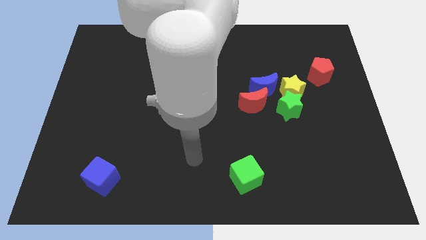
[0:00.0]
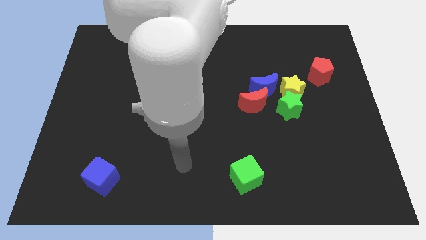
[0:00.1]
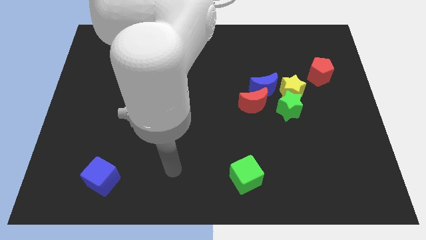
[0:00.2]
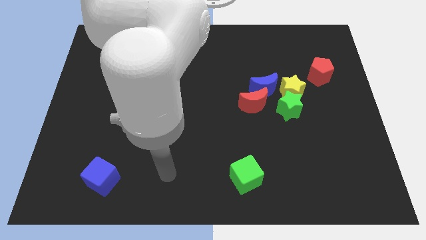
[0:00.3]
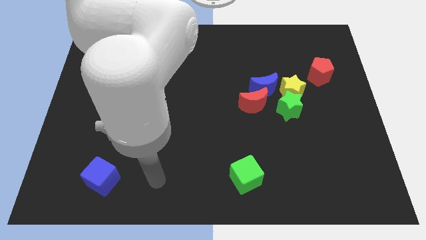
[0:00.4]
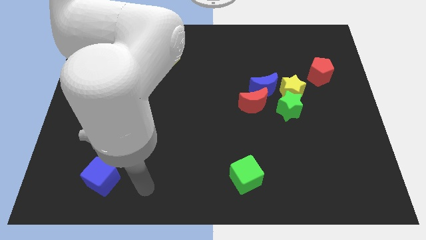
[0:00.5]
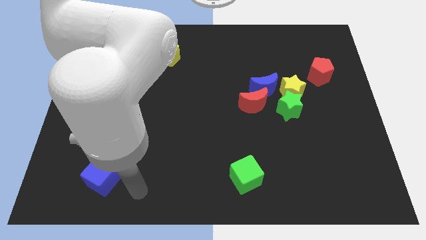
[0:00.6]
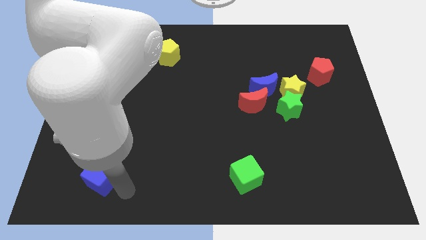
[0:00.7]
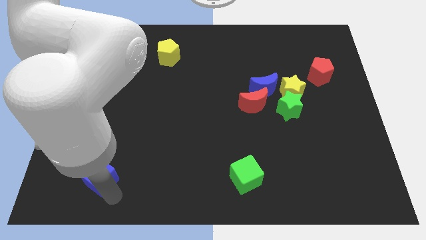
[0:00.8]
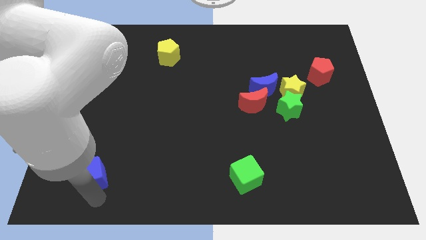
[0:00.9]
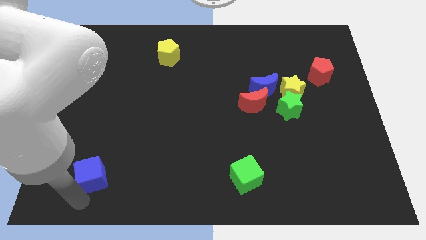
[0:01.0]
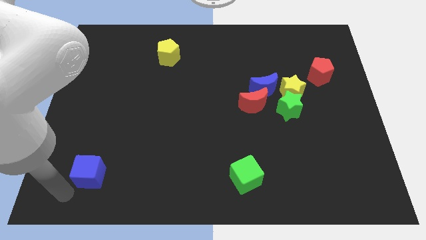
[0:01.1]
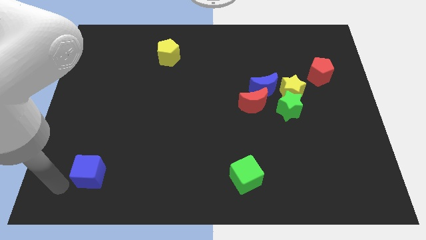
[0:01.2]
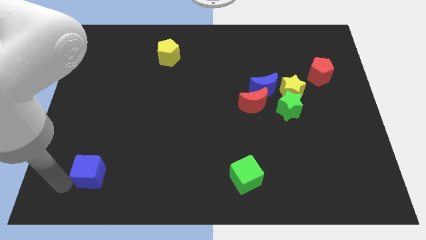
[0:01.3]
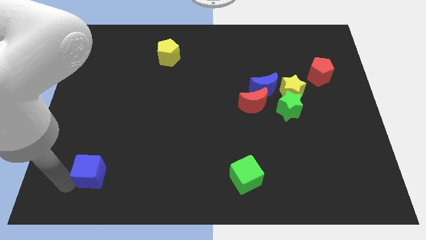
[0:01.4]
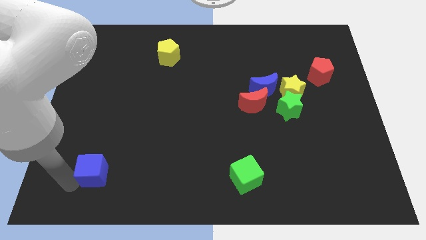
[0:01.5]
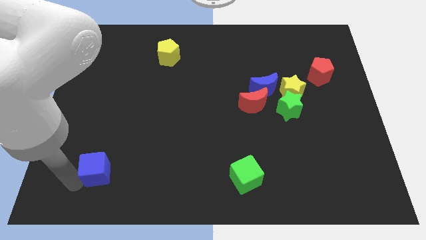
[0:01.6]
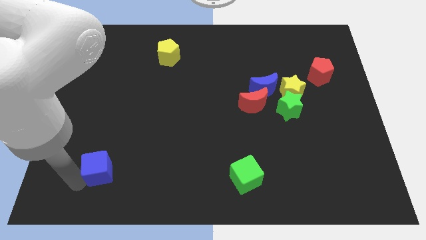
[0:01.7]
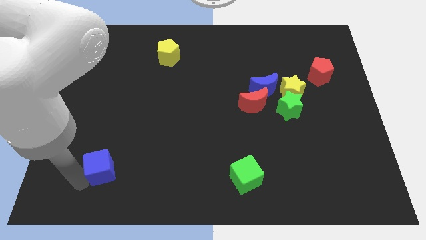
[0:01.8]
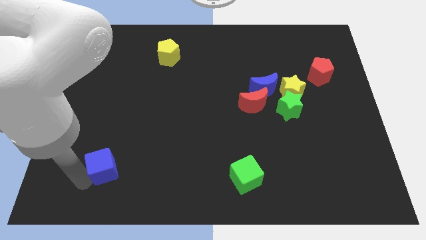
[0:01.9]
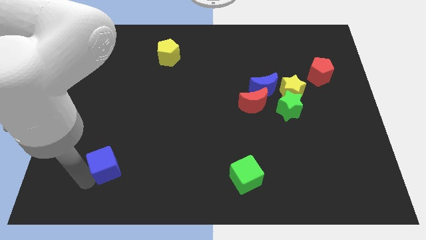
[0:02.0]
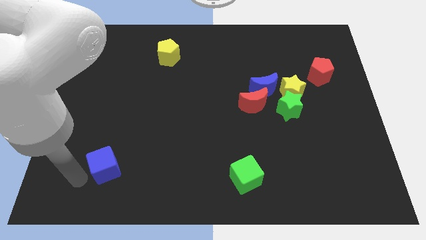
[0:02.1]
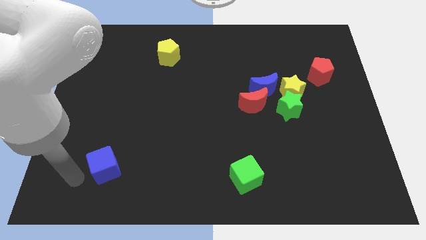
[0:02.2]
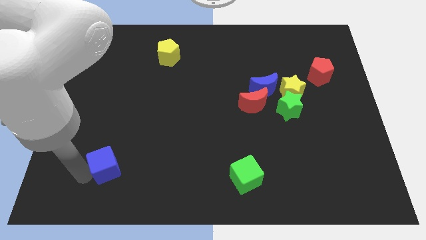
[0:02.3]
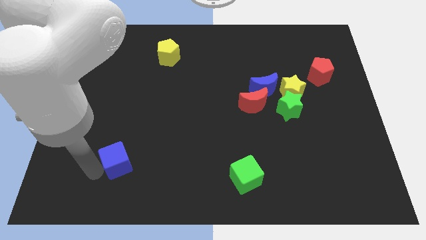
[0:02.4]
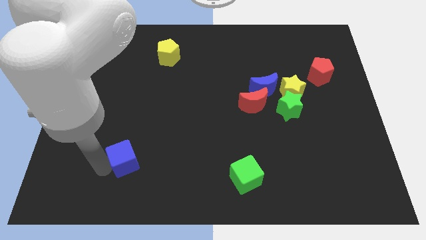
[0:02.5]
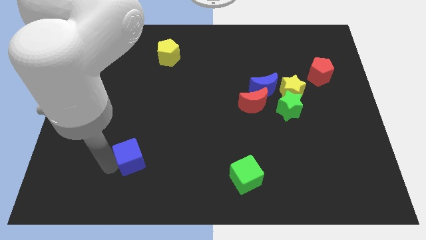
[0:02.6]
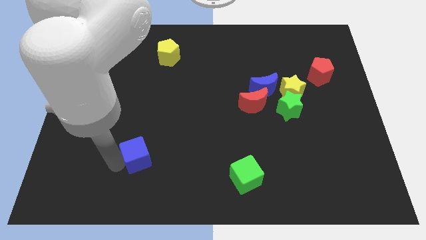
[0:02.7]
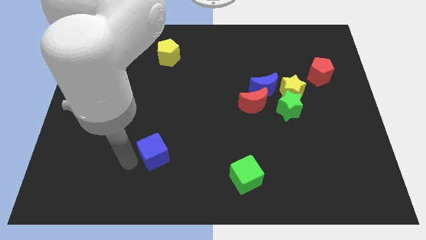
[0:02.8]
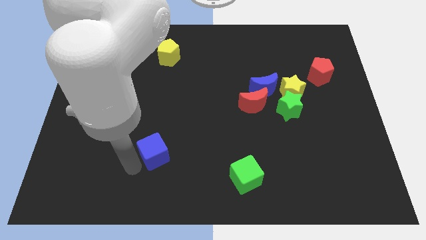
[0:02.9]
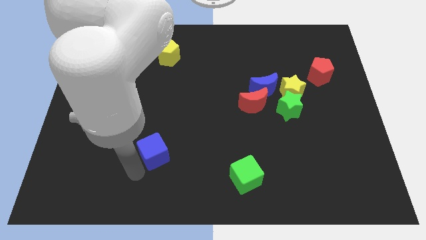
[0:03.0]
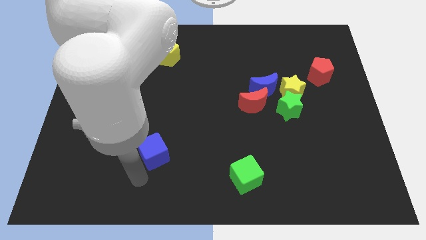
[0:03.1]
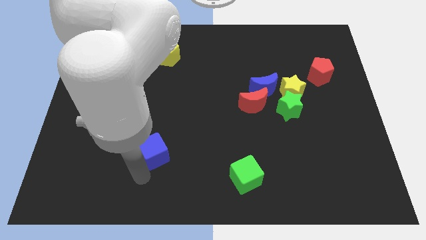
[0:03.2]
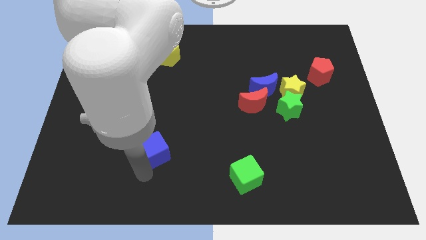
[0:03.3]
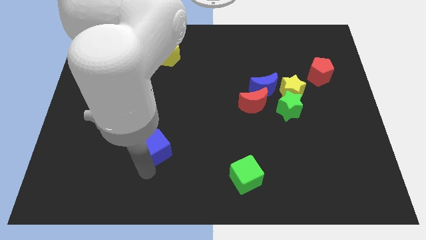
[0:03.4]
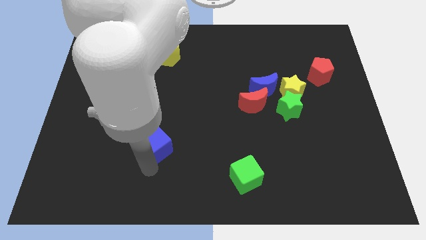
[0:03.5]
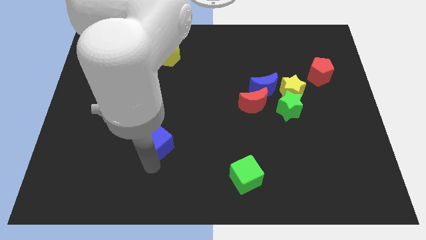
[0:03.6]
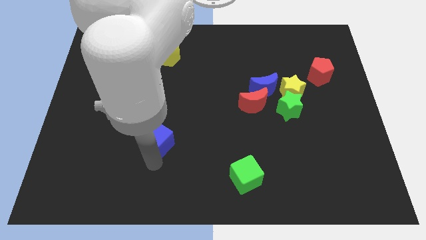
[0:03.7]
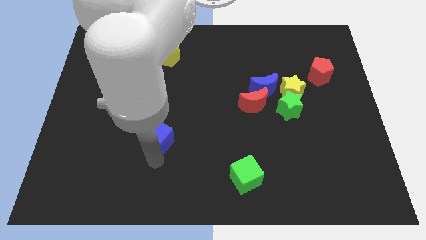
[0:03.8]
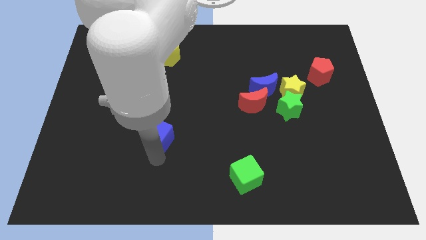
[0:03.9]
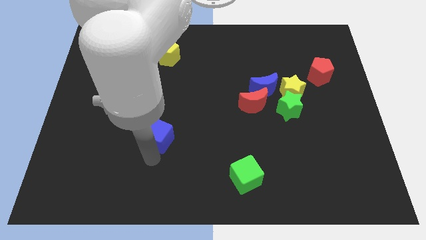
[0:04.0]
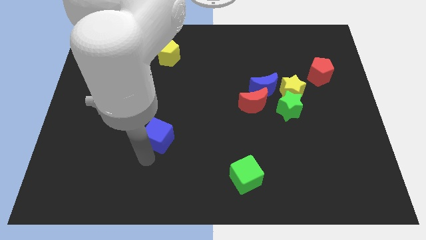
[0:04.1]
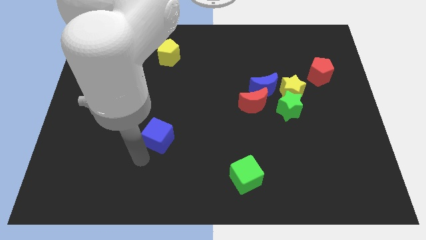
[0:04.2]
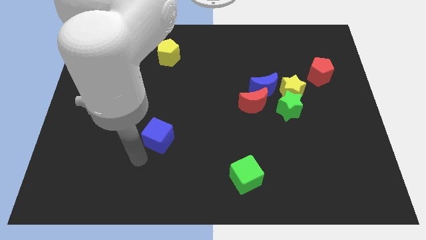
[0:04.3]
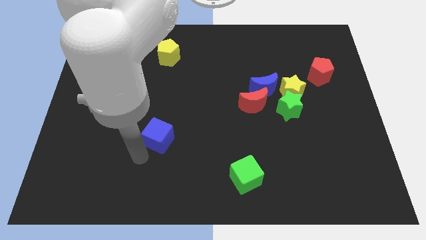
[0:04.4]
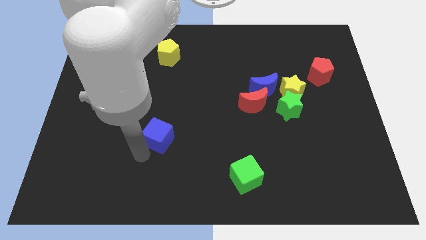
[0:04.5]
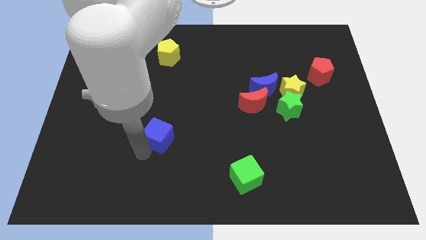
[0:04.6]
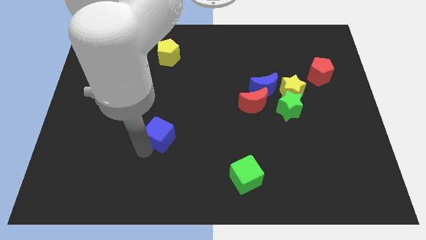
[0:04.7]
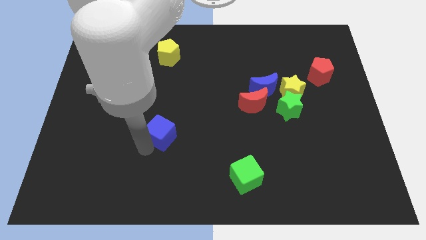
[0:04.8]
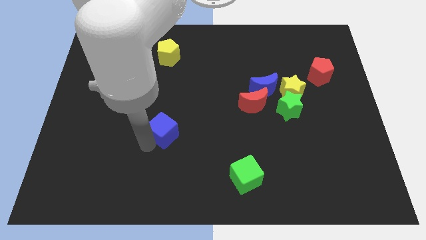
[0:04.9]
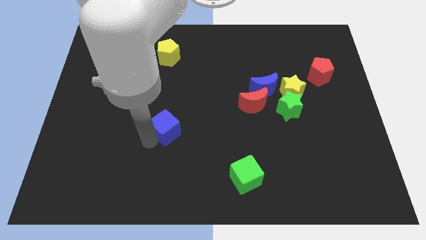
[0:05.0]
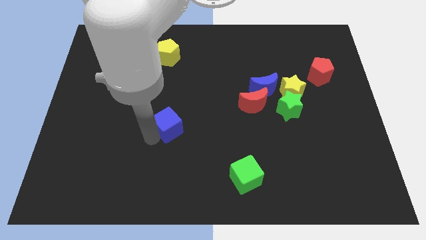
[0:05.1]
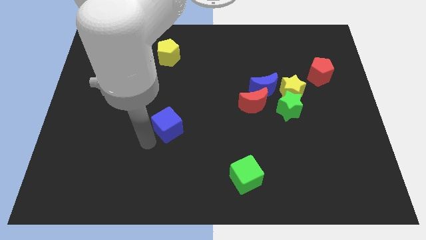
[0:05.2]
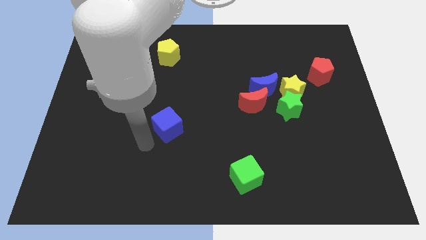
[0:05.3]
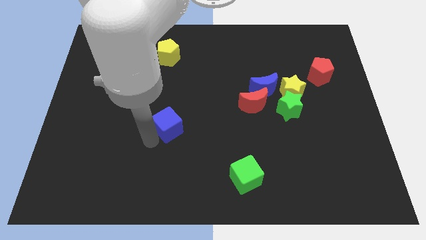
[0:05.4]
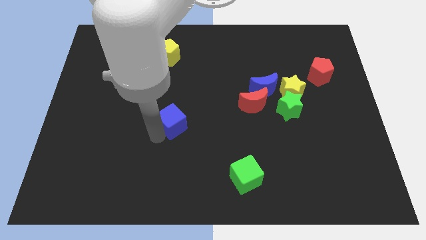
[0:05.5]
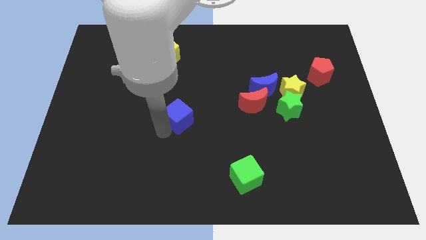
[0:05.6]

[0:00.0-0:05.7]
slide the blue cube upwards and to the right

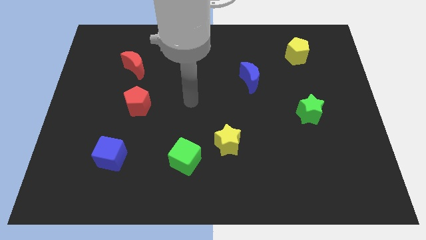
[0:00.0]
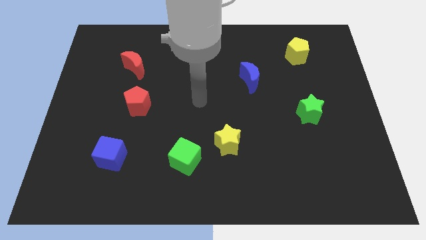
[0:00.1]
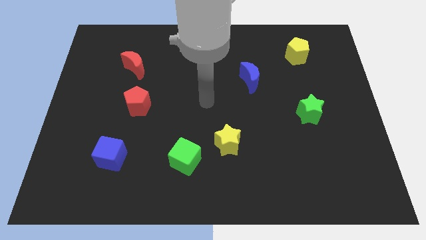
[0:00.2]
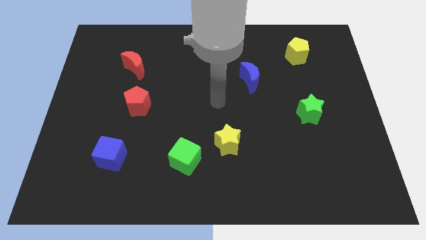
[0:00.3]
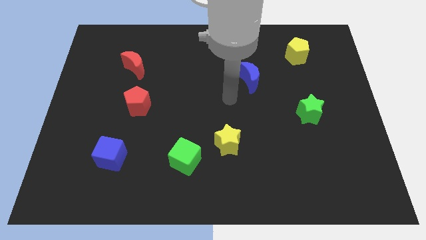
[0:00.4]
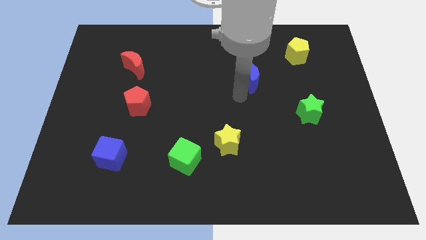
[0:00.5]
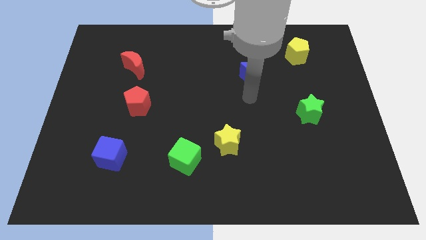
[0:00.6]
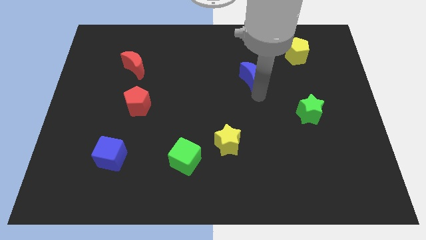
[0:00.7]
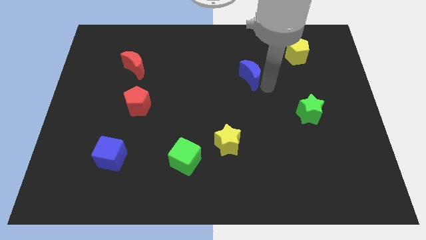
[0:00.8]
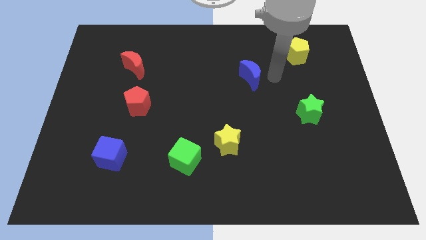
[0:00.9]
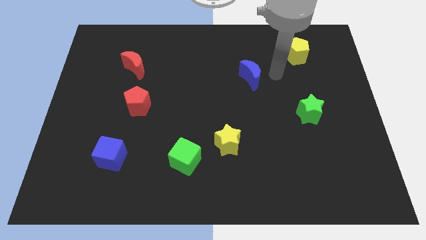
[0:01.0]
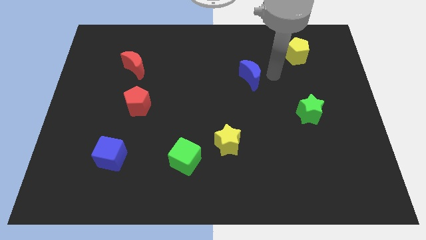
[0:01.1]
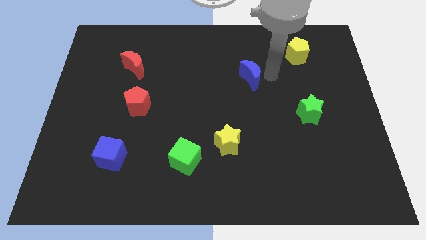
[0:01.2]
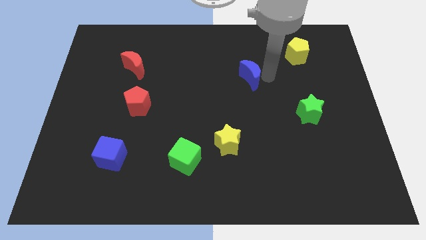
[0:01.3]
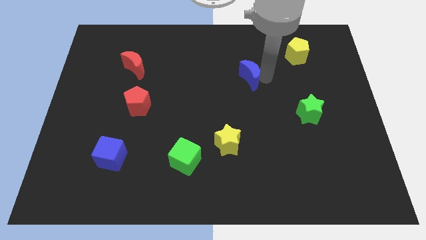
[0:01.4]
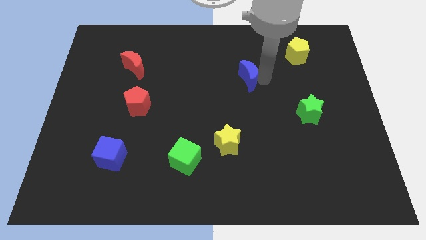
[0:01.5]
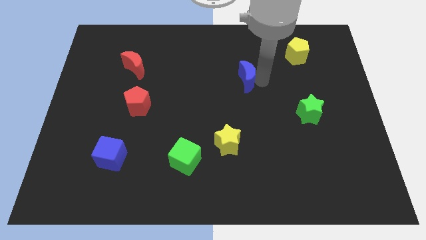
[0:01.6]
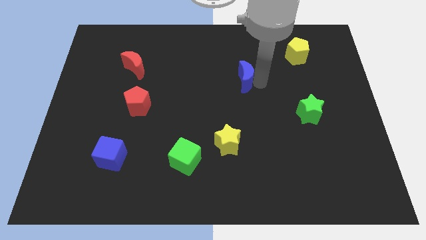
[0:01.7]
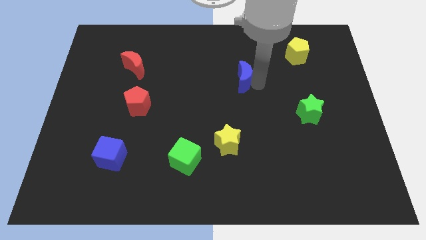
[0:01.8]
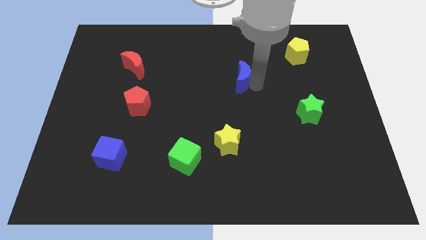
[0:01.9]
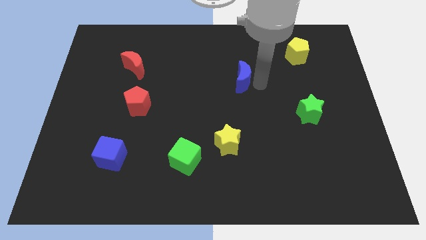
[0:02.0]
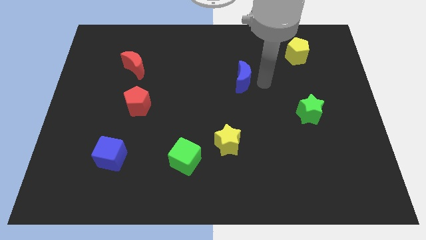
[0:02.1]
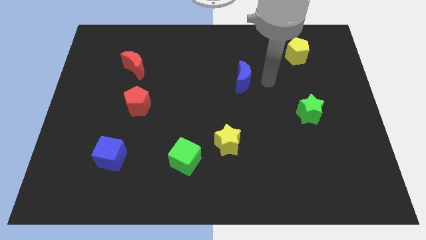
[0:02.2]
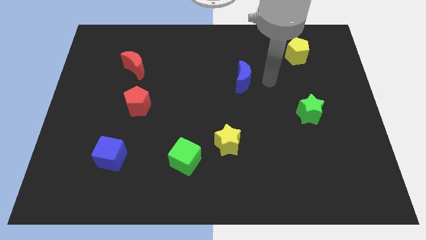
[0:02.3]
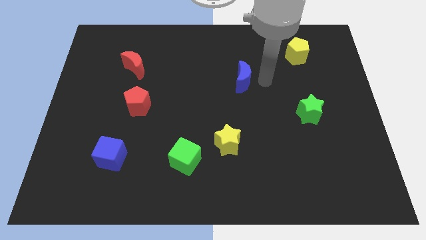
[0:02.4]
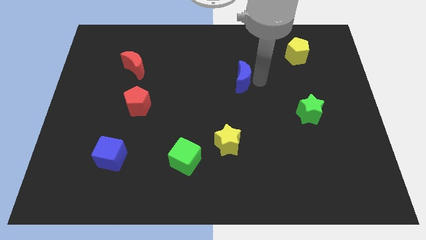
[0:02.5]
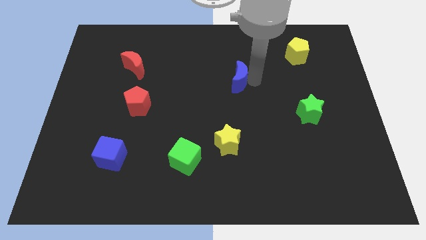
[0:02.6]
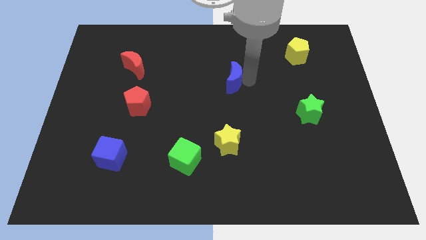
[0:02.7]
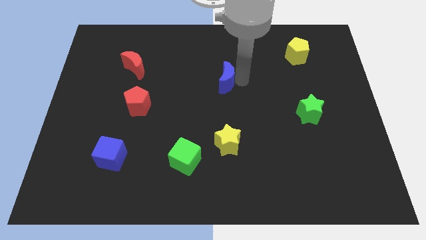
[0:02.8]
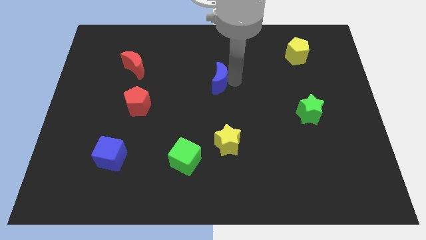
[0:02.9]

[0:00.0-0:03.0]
slide the blue moon somewhat left
